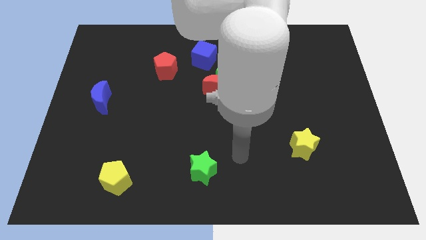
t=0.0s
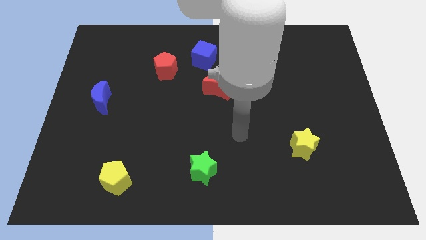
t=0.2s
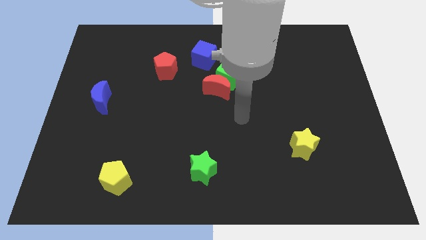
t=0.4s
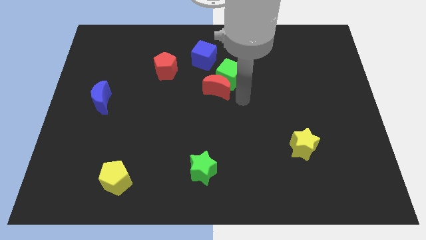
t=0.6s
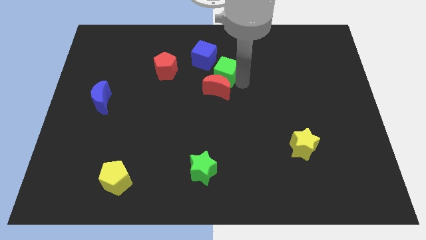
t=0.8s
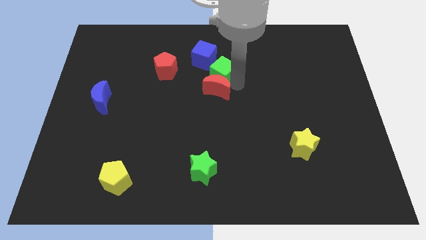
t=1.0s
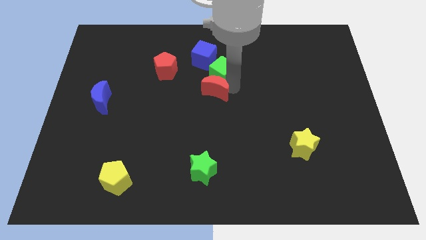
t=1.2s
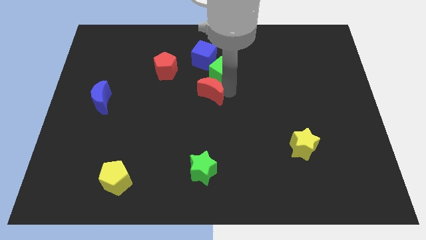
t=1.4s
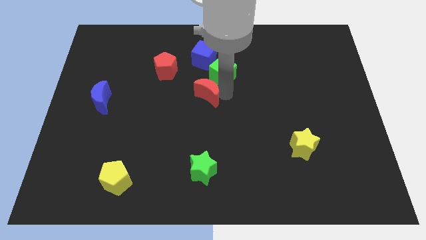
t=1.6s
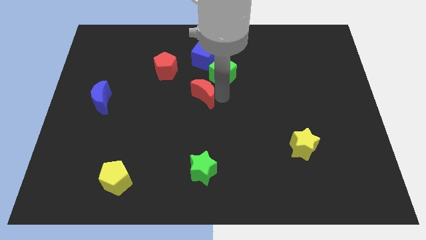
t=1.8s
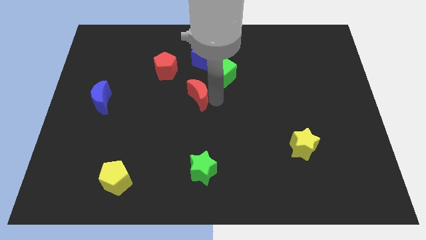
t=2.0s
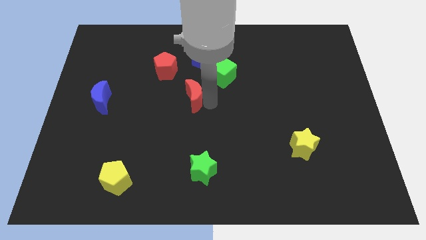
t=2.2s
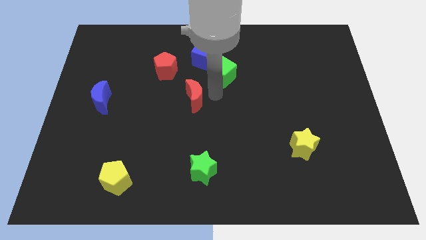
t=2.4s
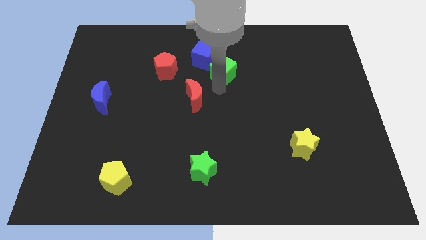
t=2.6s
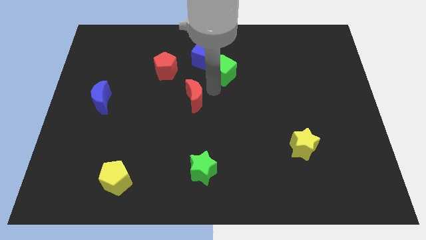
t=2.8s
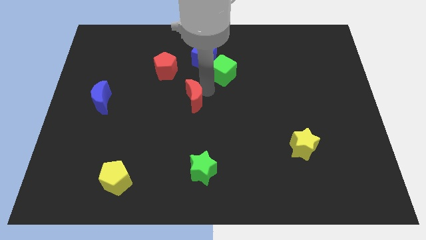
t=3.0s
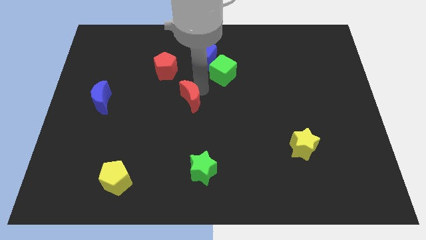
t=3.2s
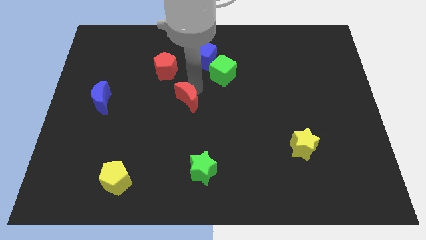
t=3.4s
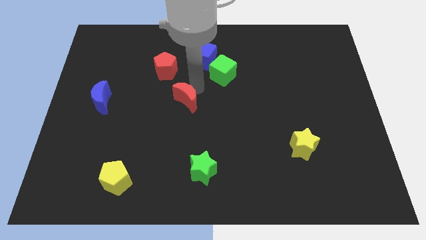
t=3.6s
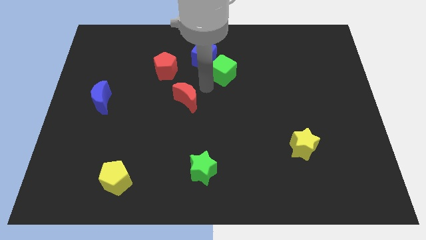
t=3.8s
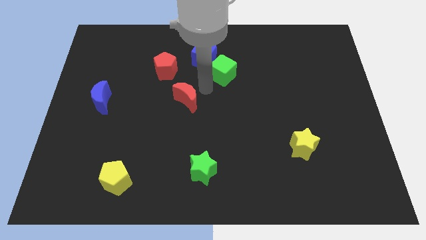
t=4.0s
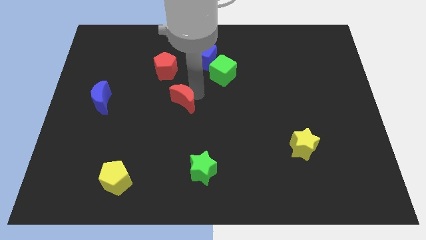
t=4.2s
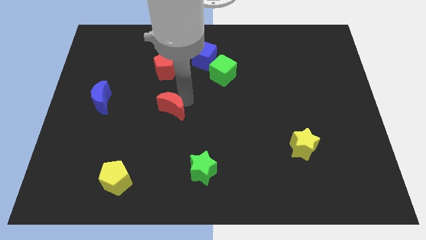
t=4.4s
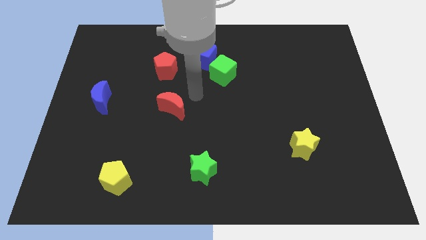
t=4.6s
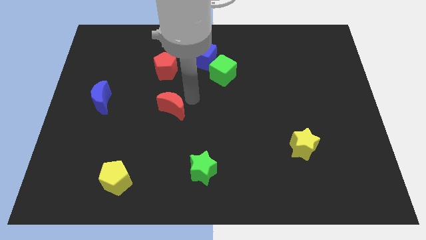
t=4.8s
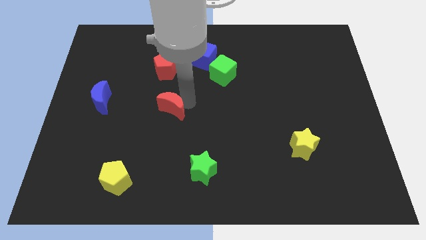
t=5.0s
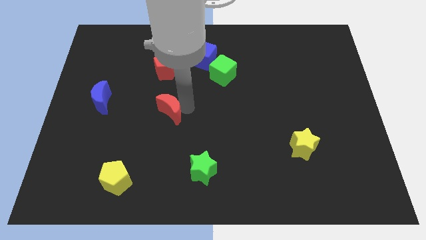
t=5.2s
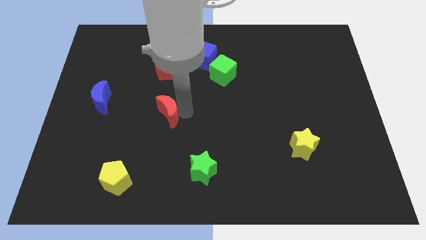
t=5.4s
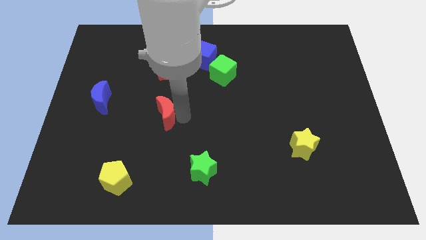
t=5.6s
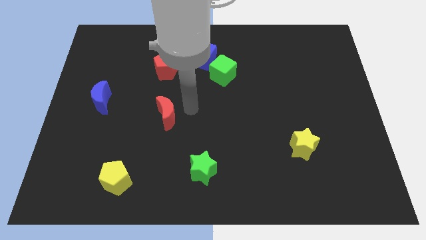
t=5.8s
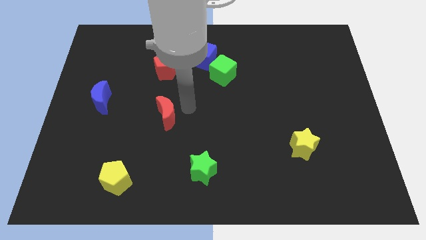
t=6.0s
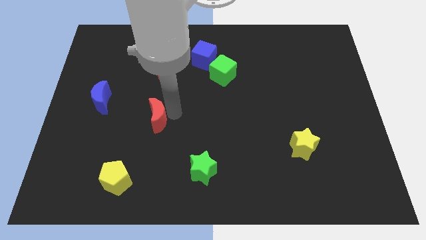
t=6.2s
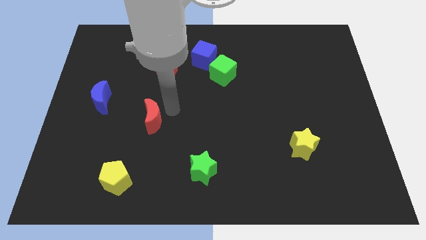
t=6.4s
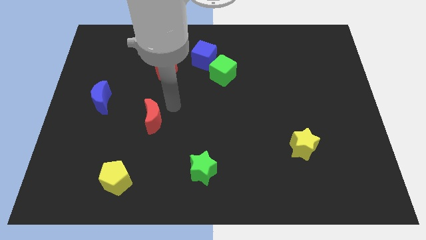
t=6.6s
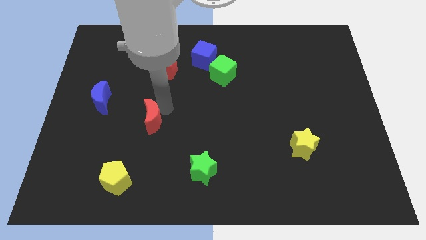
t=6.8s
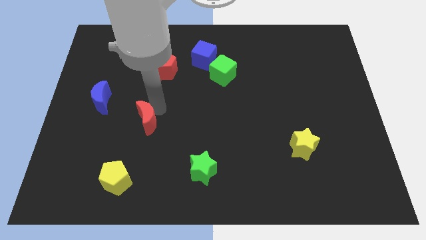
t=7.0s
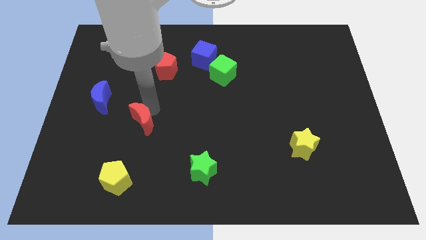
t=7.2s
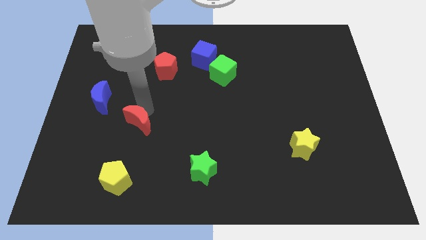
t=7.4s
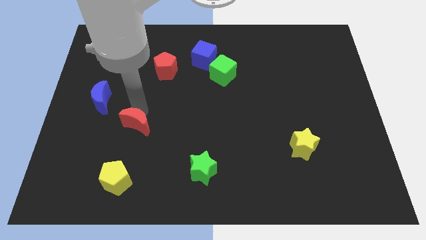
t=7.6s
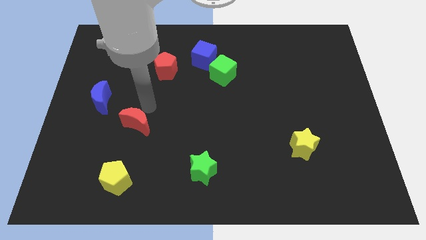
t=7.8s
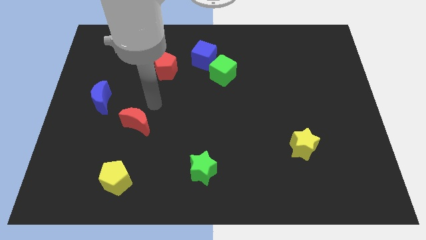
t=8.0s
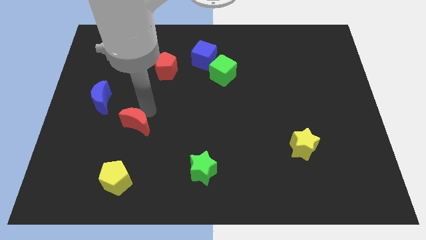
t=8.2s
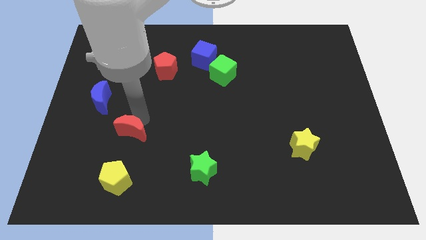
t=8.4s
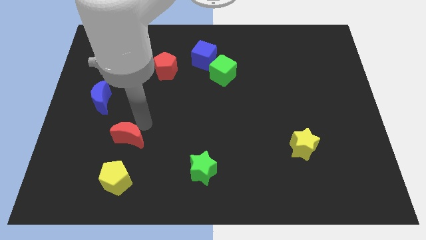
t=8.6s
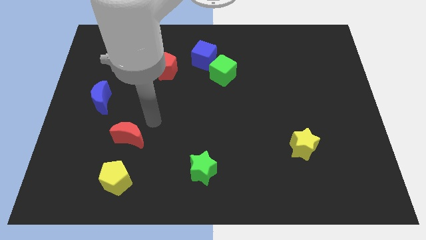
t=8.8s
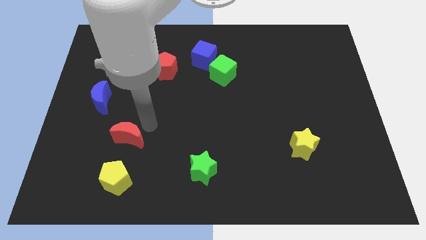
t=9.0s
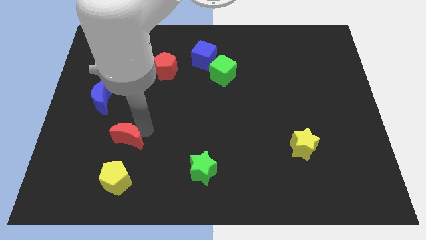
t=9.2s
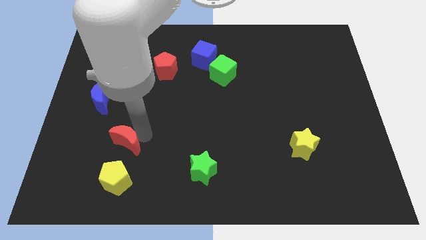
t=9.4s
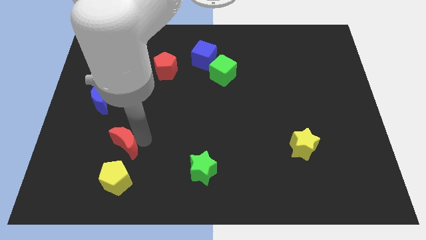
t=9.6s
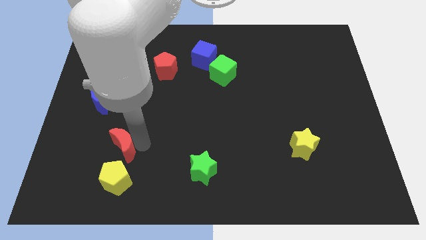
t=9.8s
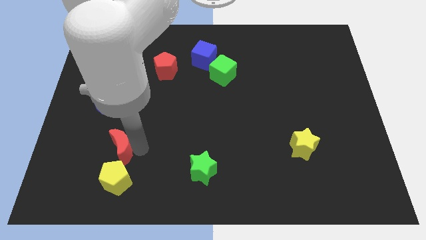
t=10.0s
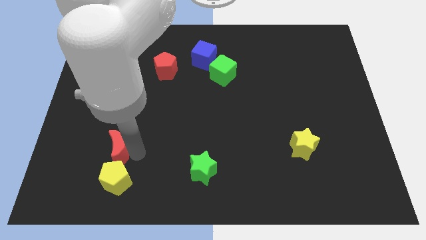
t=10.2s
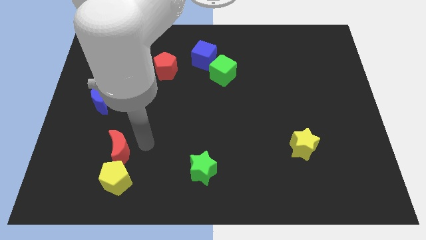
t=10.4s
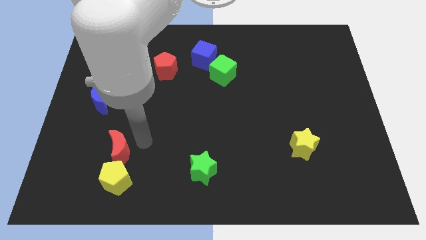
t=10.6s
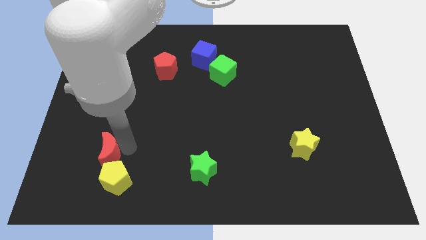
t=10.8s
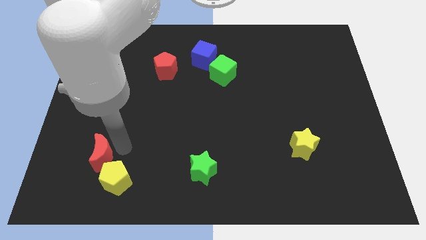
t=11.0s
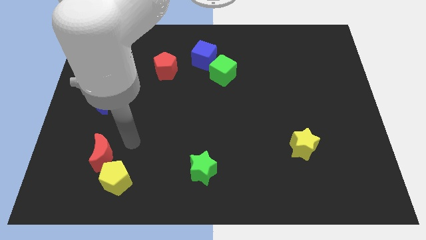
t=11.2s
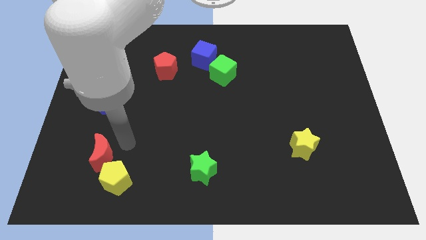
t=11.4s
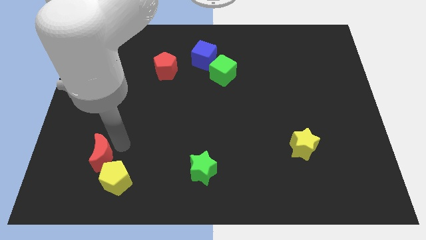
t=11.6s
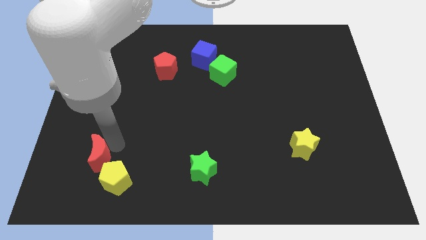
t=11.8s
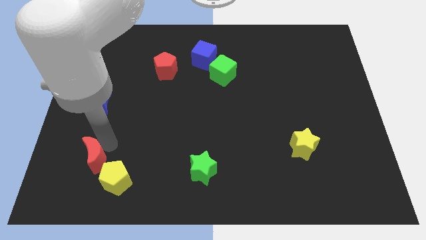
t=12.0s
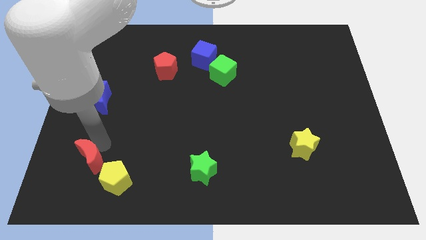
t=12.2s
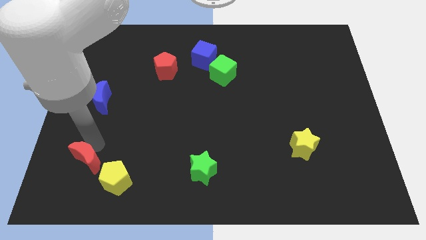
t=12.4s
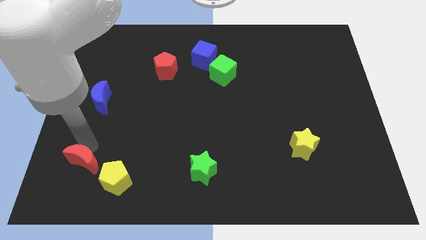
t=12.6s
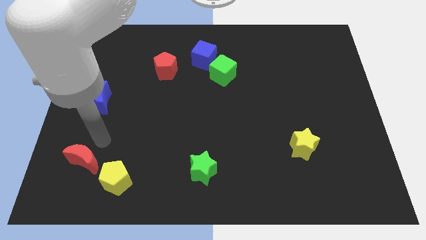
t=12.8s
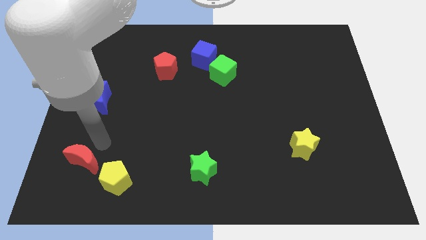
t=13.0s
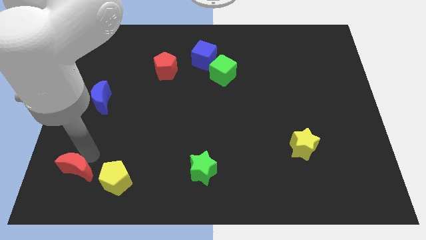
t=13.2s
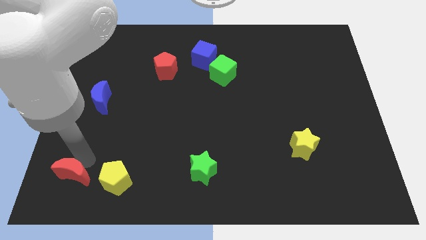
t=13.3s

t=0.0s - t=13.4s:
push the red moon to the bottom left corner
